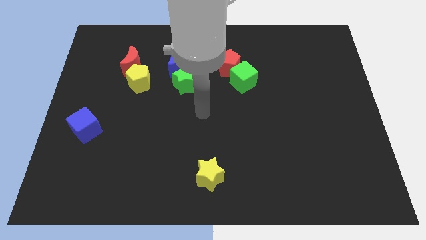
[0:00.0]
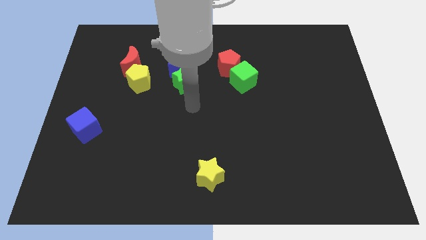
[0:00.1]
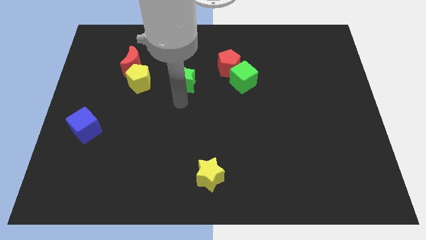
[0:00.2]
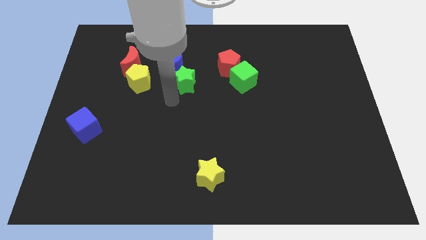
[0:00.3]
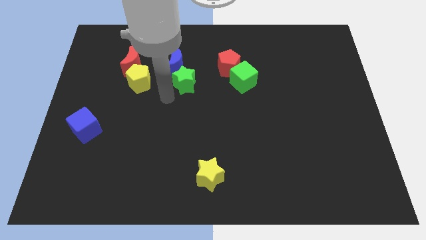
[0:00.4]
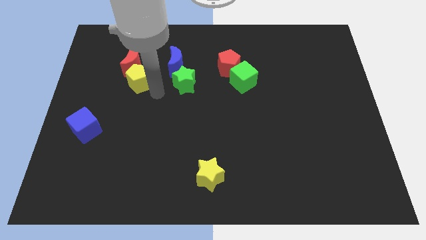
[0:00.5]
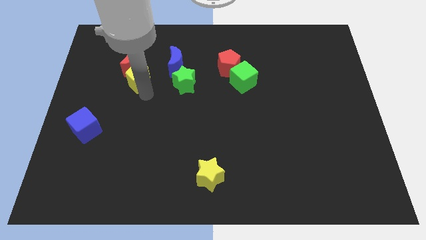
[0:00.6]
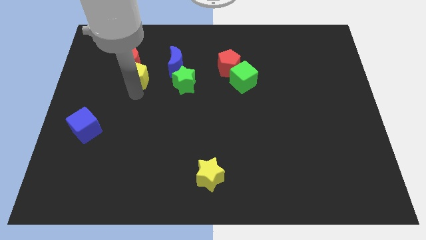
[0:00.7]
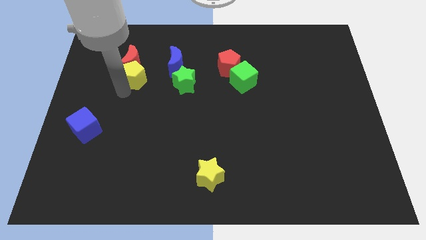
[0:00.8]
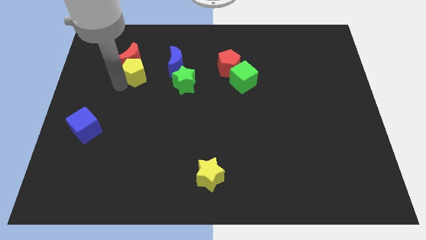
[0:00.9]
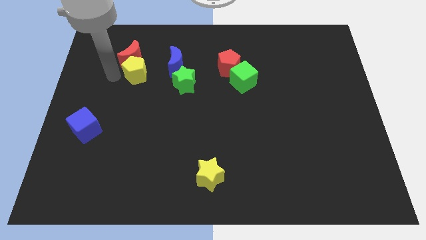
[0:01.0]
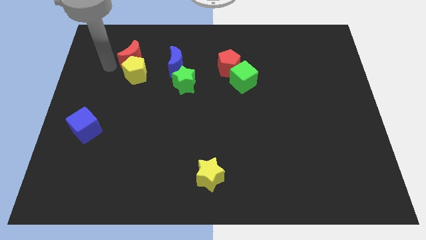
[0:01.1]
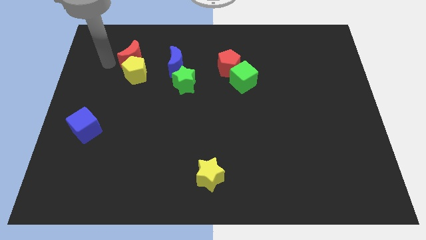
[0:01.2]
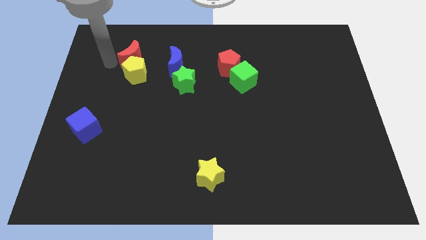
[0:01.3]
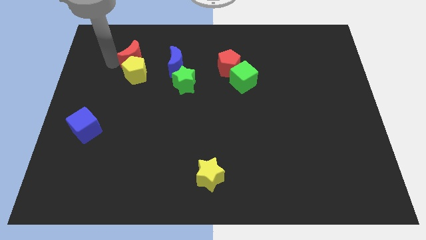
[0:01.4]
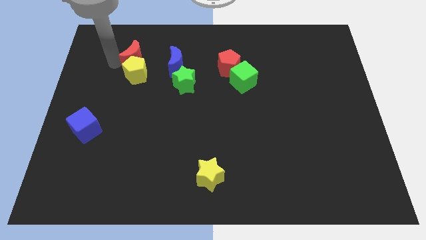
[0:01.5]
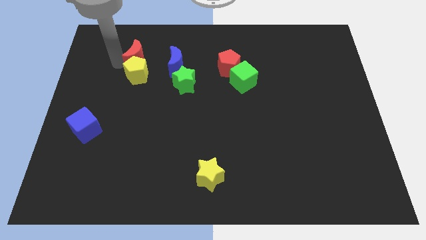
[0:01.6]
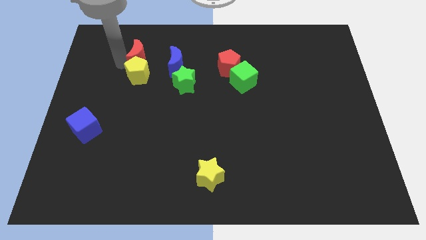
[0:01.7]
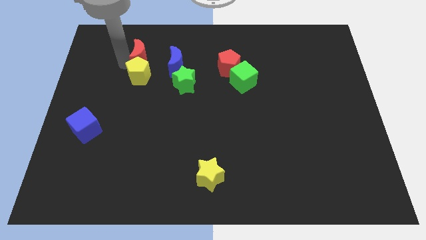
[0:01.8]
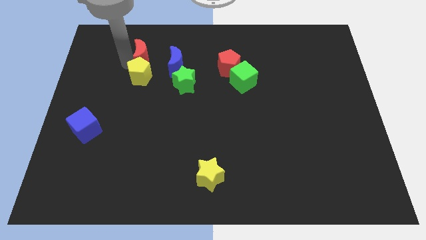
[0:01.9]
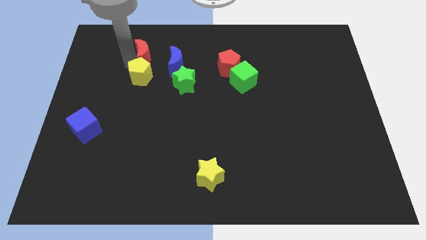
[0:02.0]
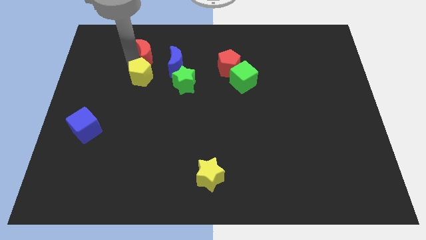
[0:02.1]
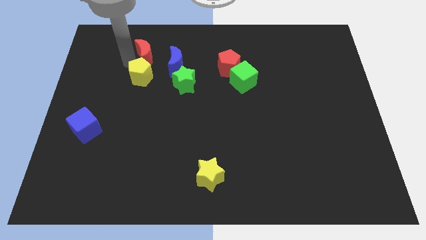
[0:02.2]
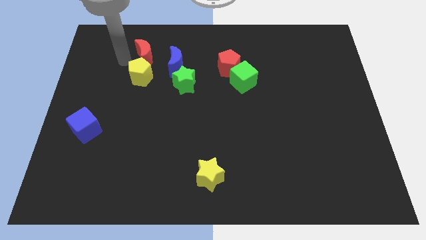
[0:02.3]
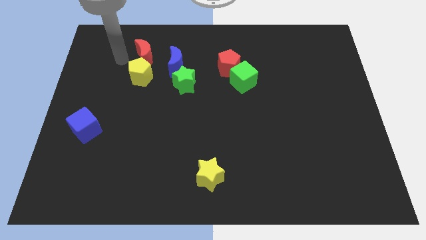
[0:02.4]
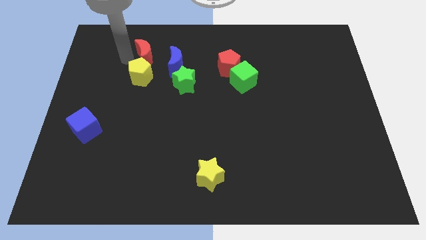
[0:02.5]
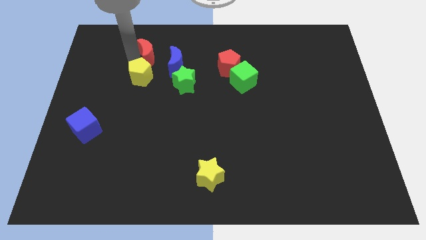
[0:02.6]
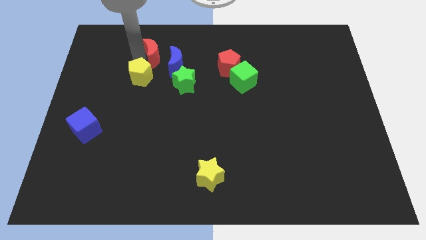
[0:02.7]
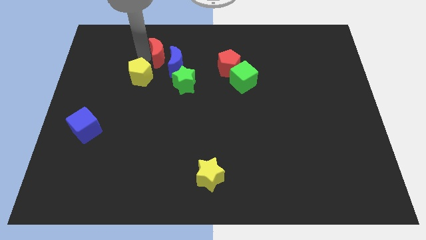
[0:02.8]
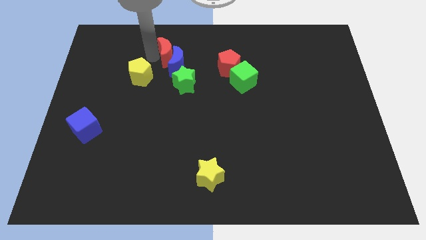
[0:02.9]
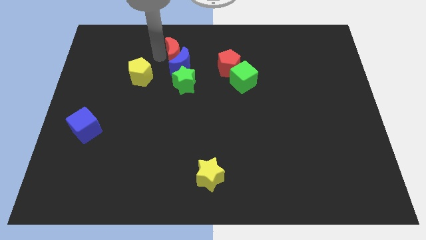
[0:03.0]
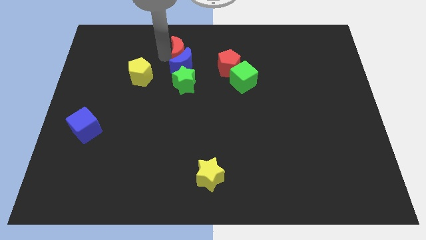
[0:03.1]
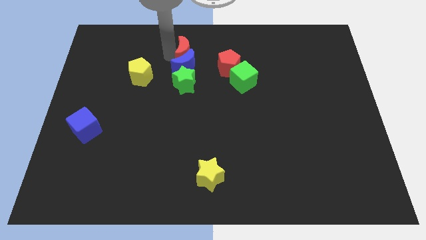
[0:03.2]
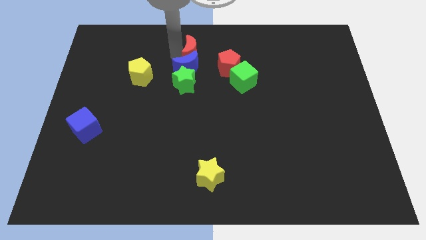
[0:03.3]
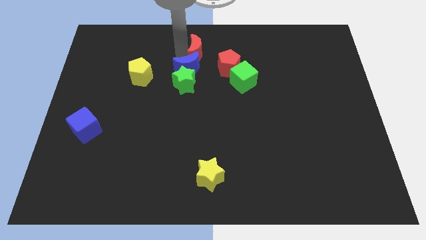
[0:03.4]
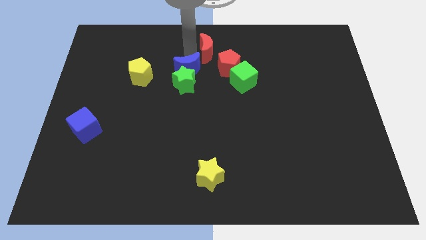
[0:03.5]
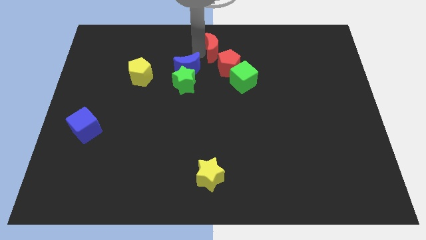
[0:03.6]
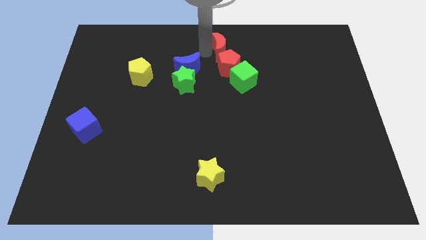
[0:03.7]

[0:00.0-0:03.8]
move the red moon to the right

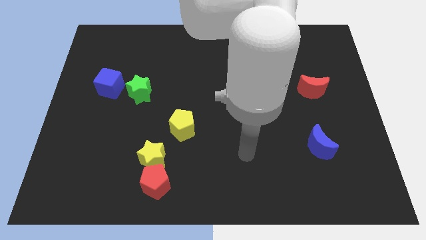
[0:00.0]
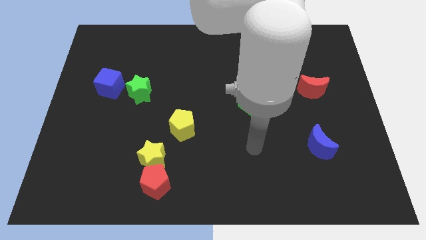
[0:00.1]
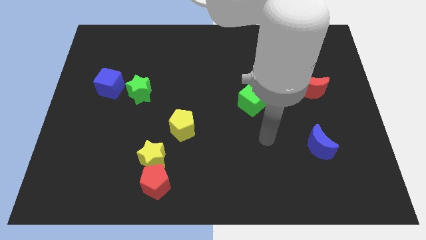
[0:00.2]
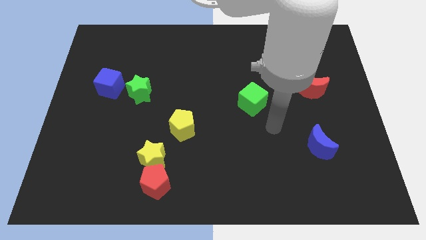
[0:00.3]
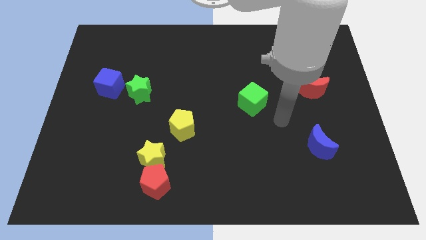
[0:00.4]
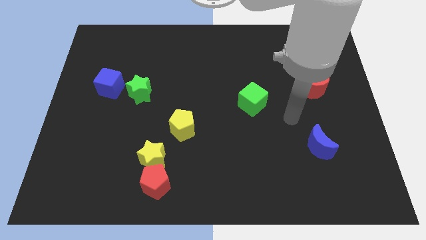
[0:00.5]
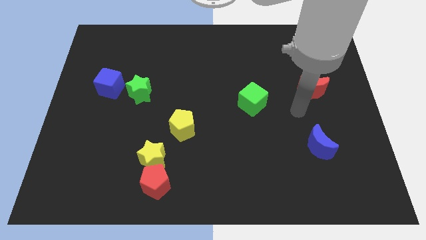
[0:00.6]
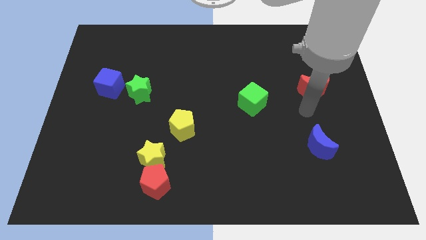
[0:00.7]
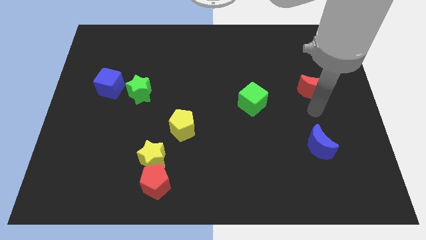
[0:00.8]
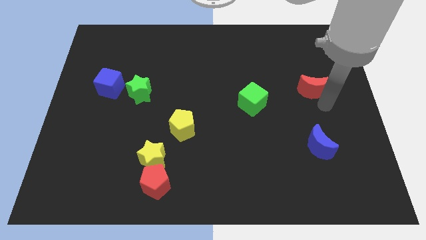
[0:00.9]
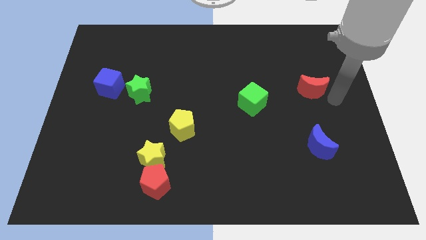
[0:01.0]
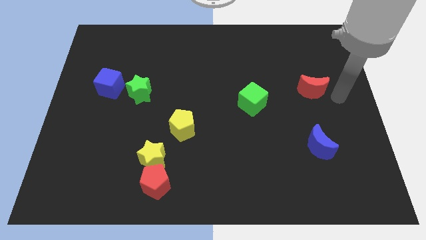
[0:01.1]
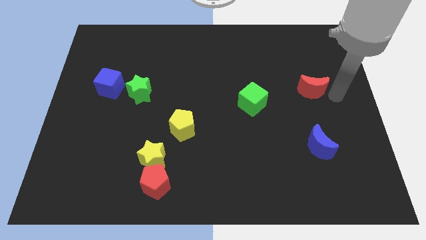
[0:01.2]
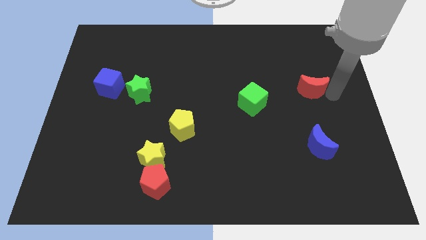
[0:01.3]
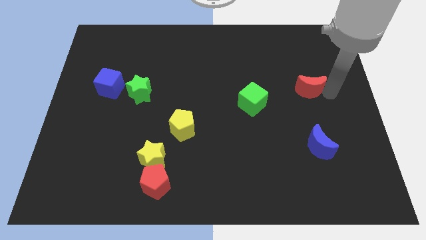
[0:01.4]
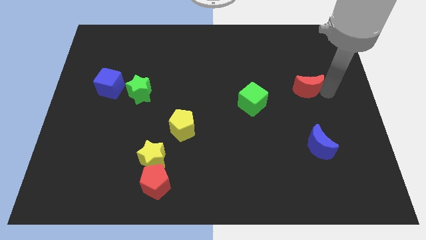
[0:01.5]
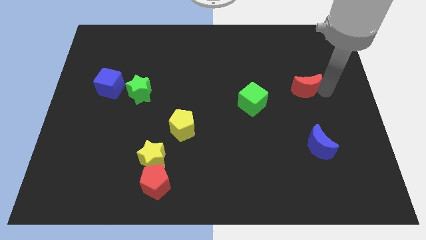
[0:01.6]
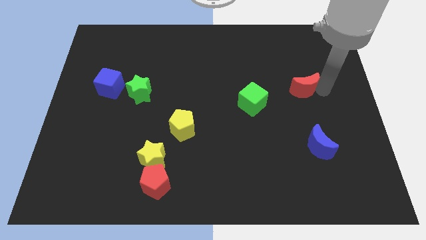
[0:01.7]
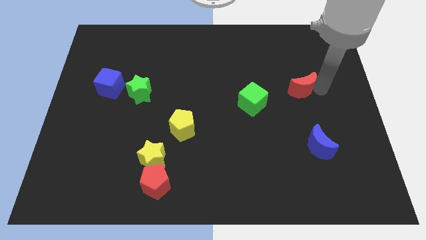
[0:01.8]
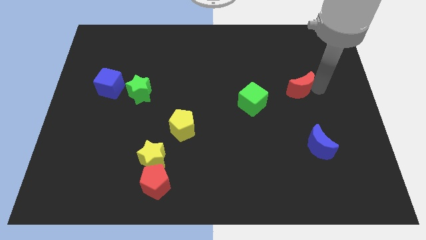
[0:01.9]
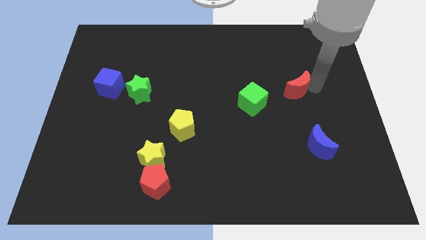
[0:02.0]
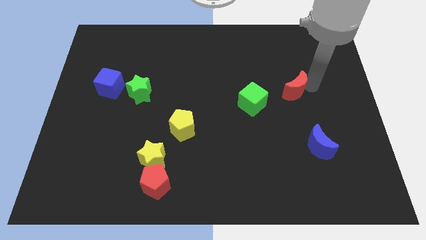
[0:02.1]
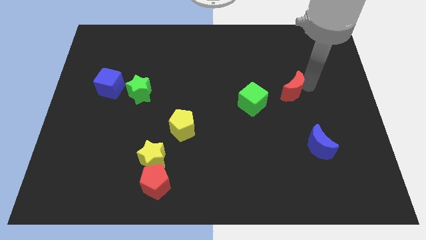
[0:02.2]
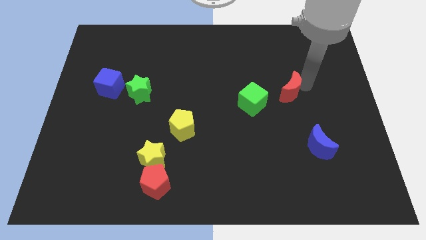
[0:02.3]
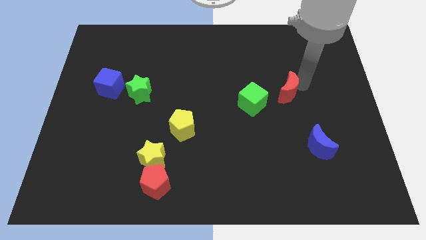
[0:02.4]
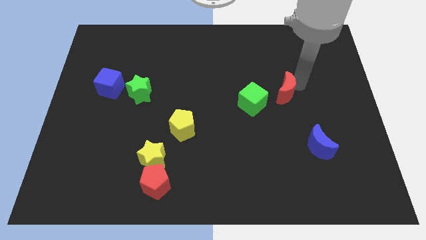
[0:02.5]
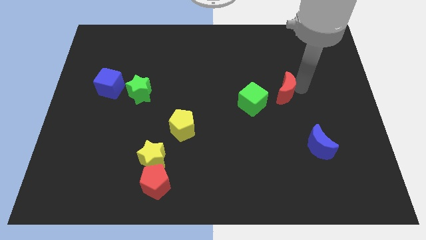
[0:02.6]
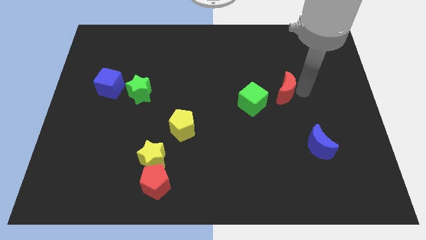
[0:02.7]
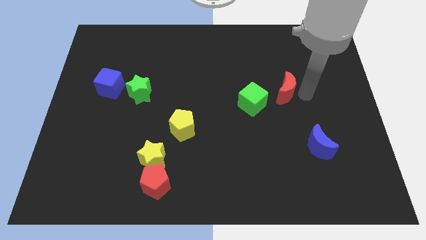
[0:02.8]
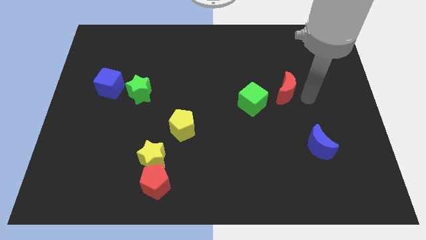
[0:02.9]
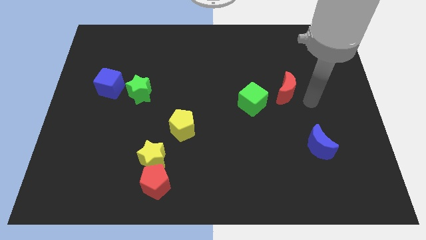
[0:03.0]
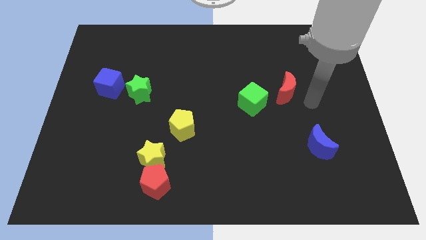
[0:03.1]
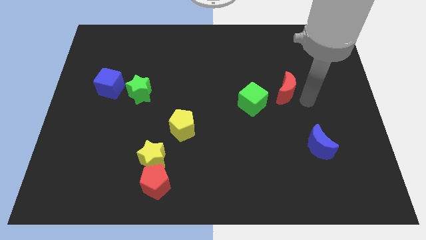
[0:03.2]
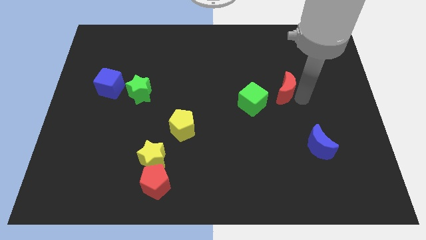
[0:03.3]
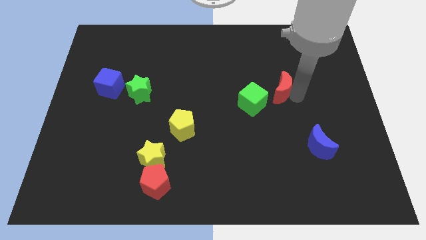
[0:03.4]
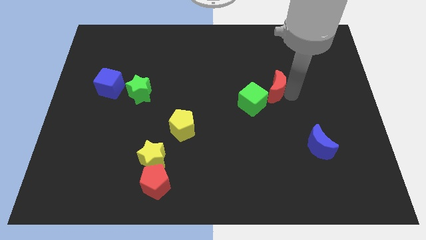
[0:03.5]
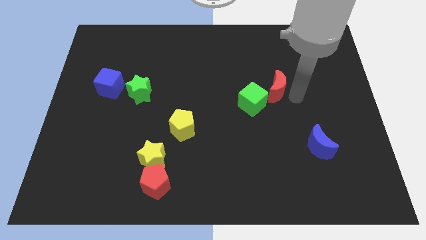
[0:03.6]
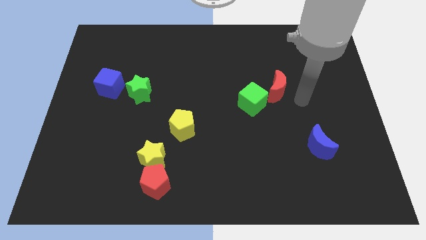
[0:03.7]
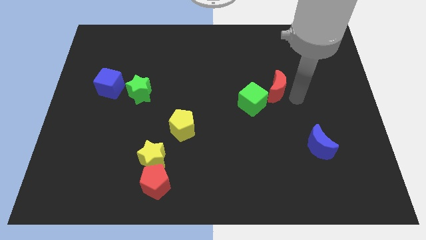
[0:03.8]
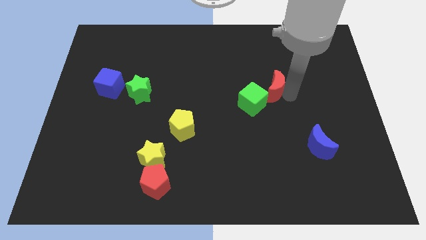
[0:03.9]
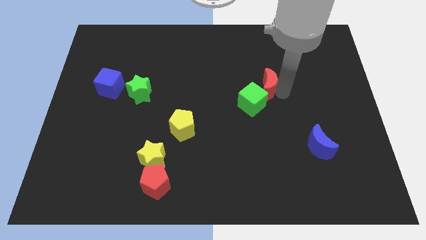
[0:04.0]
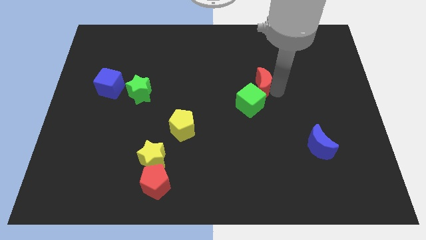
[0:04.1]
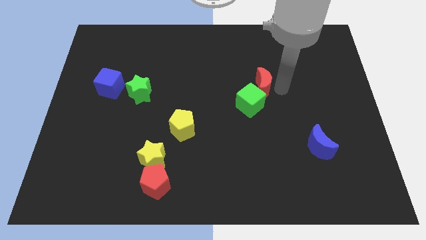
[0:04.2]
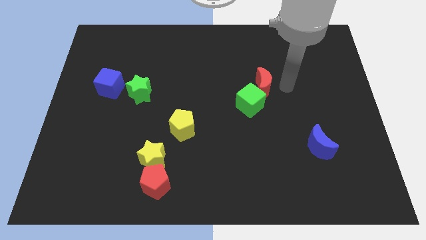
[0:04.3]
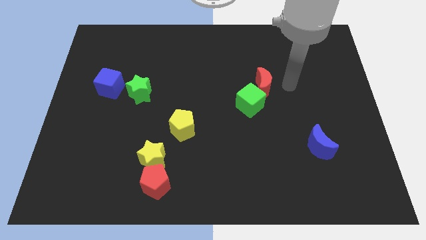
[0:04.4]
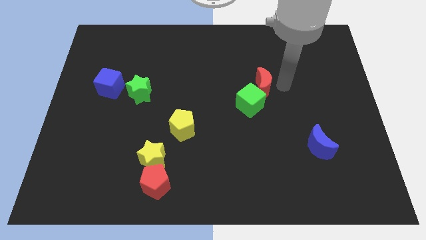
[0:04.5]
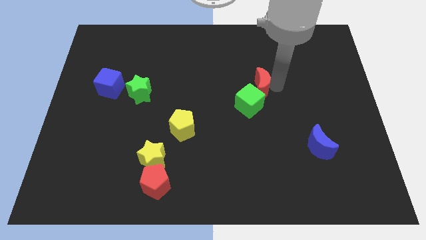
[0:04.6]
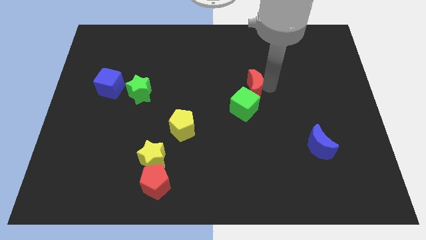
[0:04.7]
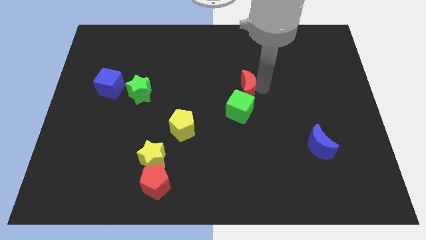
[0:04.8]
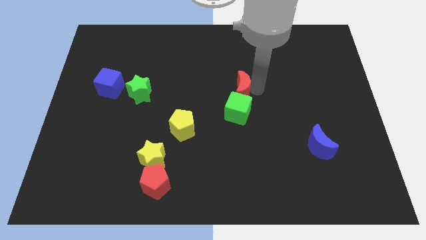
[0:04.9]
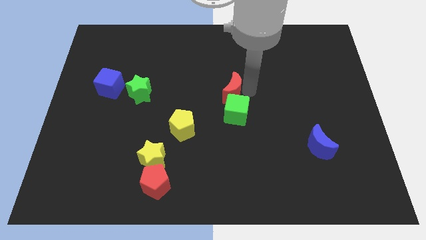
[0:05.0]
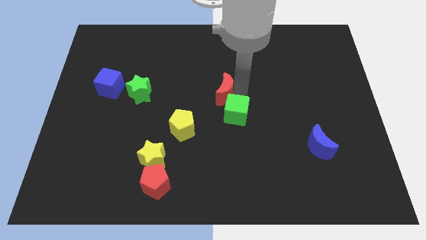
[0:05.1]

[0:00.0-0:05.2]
move the red moon left
